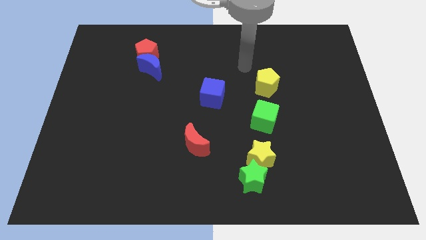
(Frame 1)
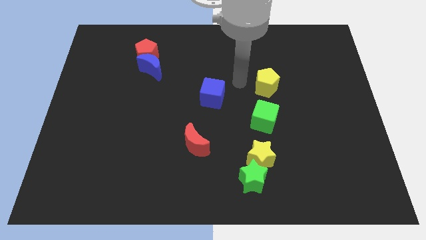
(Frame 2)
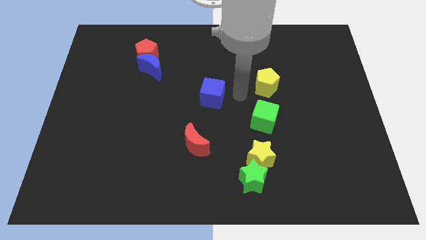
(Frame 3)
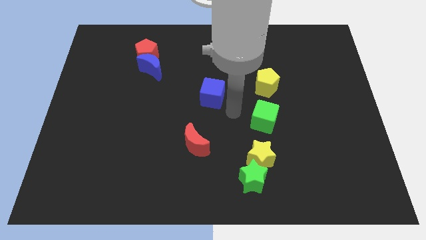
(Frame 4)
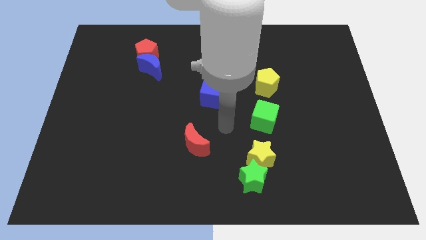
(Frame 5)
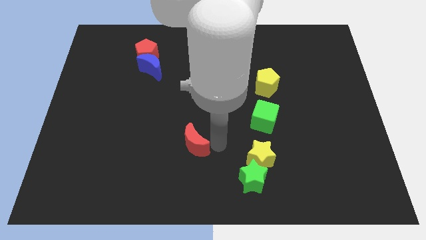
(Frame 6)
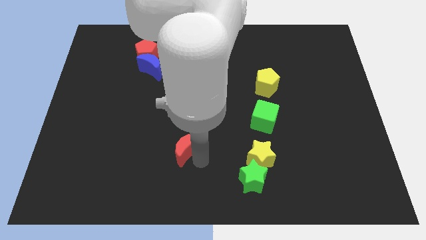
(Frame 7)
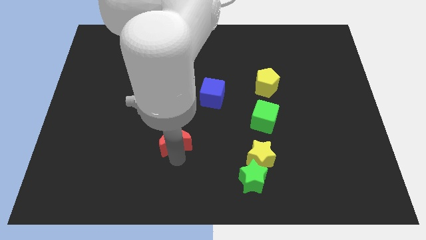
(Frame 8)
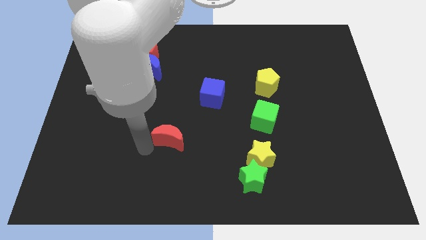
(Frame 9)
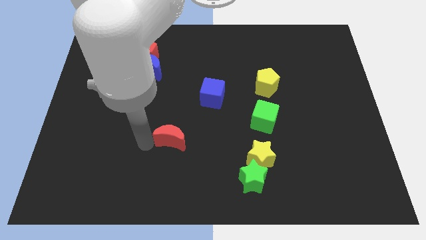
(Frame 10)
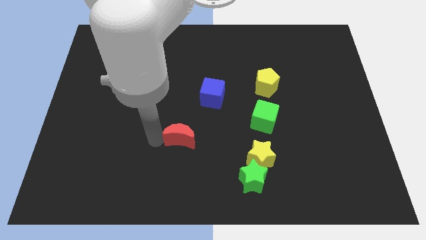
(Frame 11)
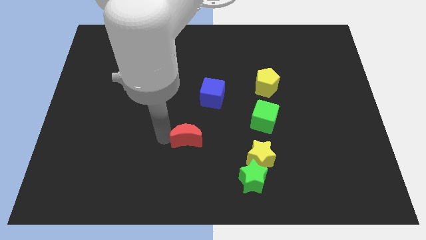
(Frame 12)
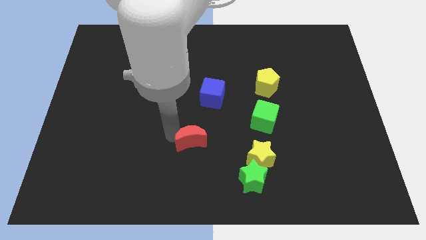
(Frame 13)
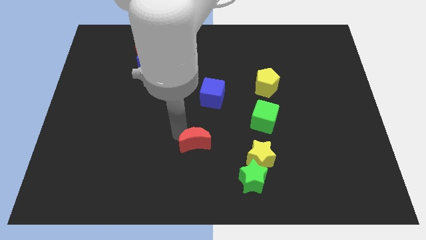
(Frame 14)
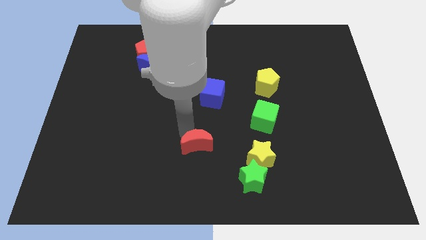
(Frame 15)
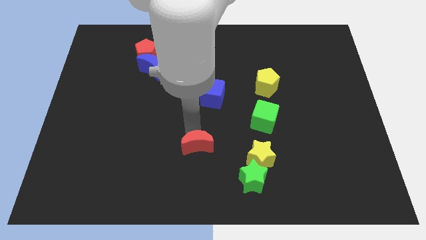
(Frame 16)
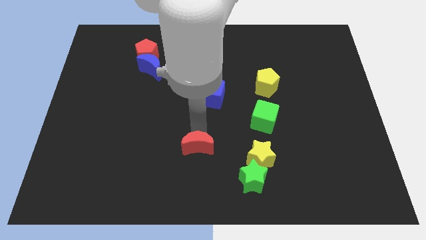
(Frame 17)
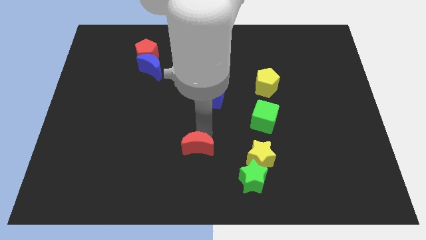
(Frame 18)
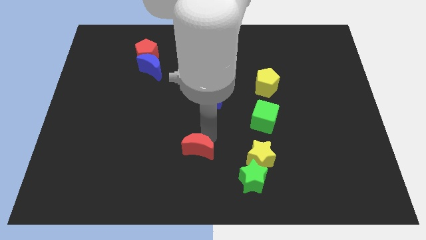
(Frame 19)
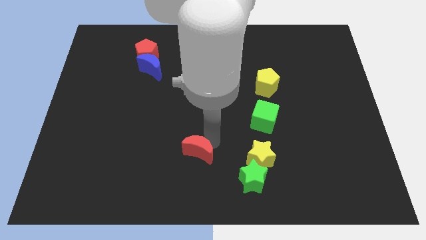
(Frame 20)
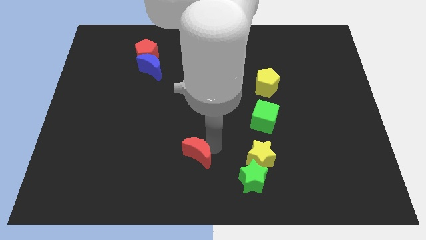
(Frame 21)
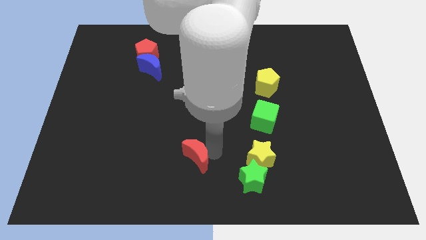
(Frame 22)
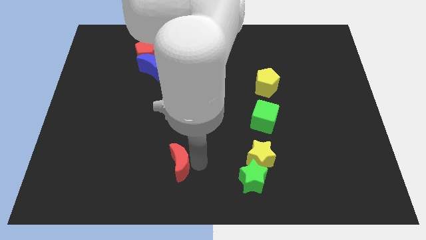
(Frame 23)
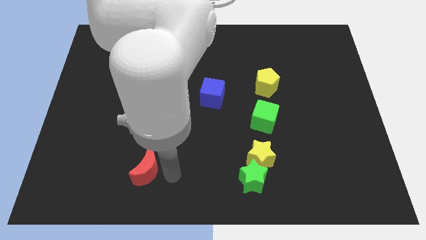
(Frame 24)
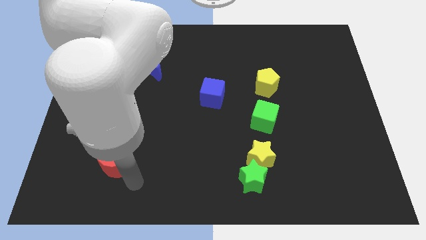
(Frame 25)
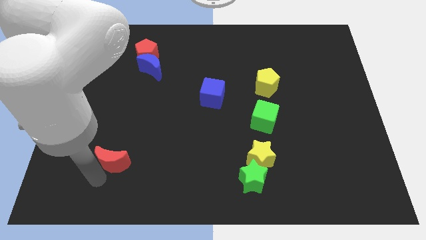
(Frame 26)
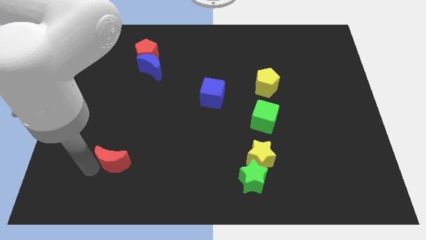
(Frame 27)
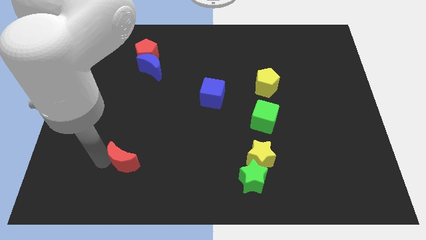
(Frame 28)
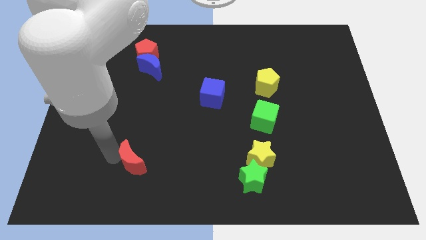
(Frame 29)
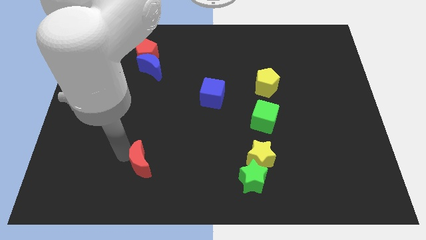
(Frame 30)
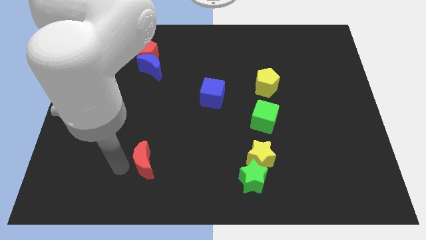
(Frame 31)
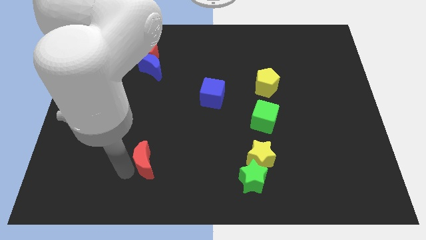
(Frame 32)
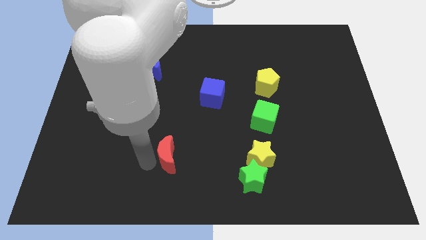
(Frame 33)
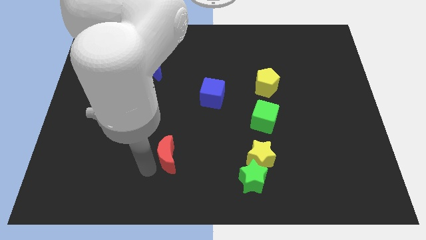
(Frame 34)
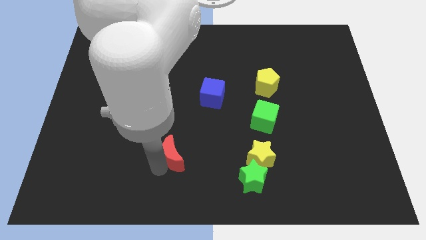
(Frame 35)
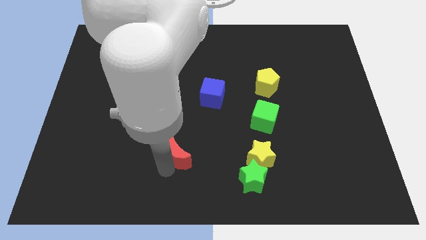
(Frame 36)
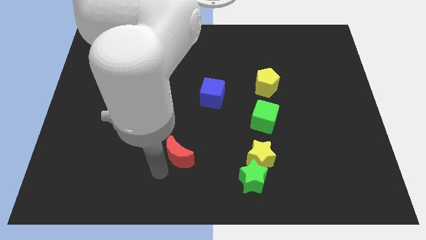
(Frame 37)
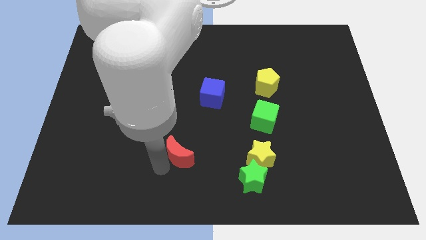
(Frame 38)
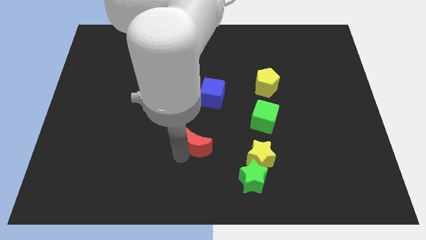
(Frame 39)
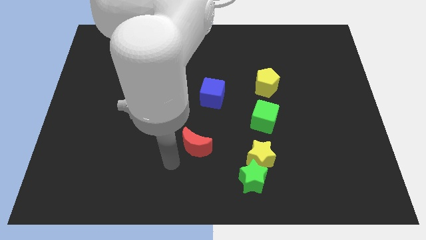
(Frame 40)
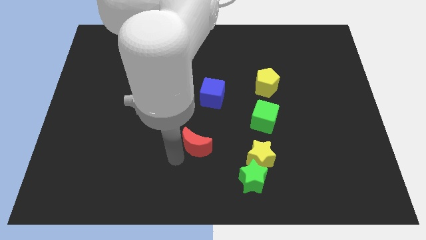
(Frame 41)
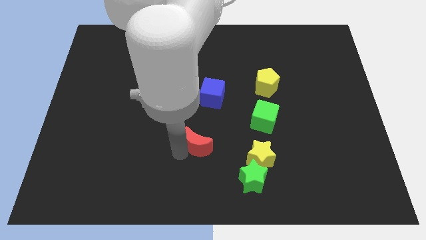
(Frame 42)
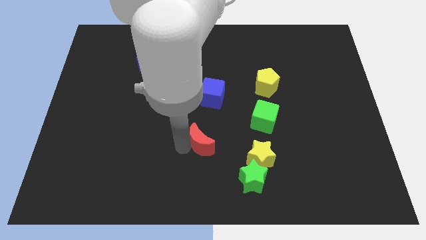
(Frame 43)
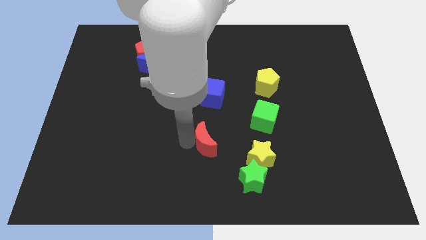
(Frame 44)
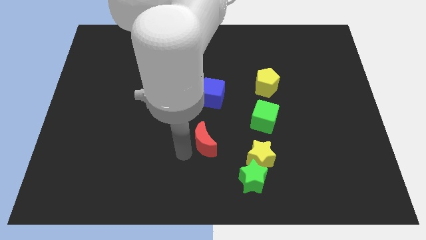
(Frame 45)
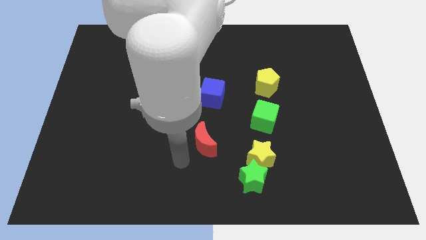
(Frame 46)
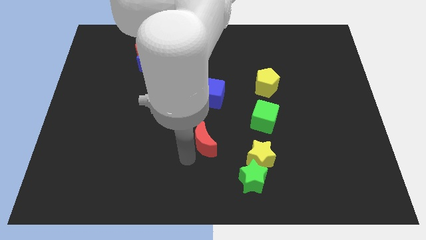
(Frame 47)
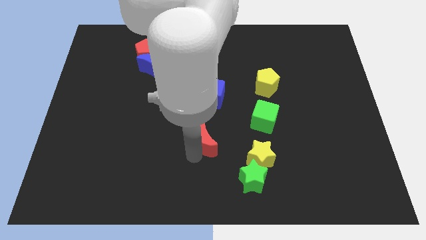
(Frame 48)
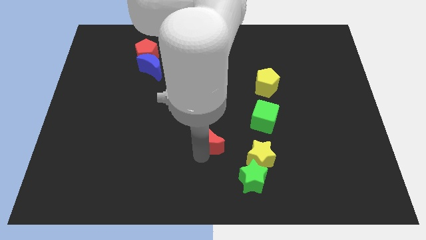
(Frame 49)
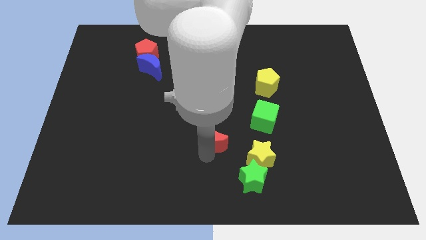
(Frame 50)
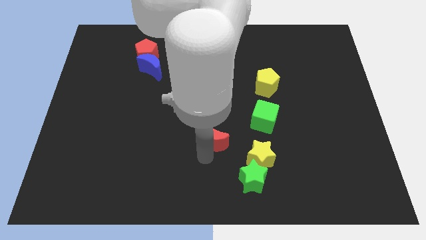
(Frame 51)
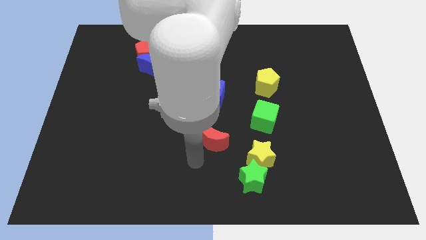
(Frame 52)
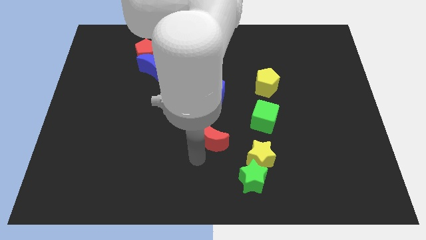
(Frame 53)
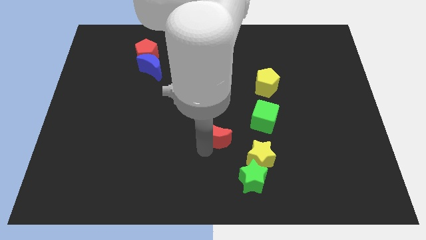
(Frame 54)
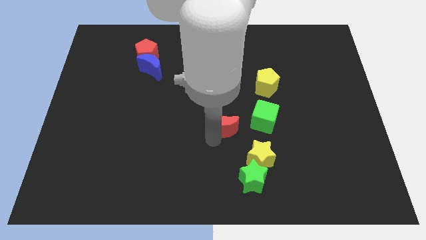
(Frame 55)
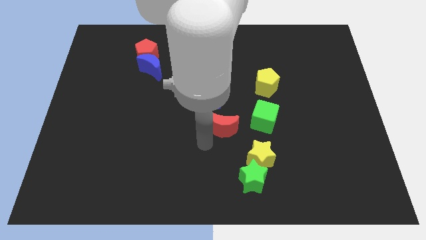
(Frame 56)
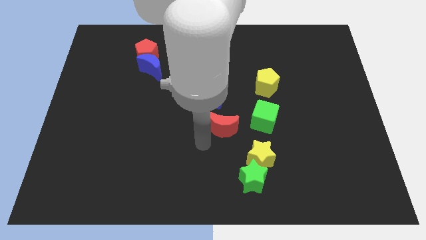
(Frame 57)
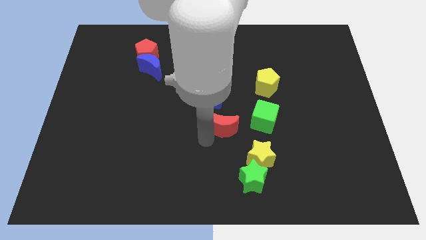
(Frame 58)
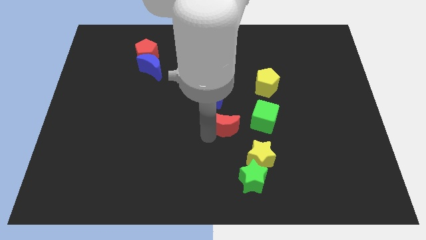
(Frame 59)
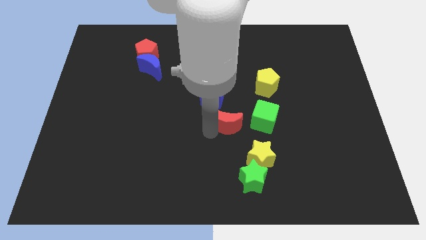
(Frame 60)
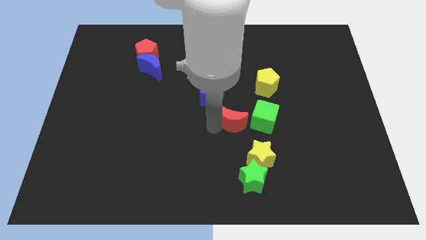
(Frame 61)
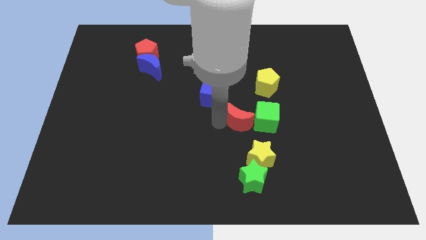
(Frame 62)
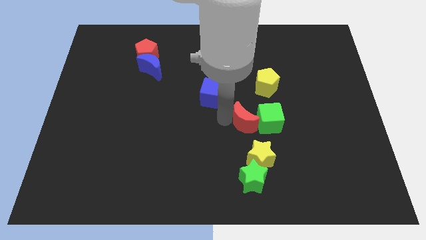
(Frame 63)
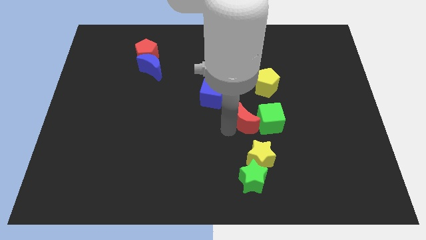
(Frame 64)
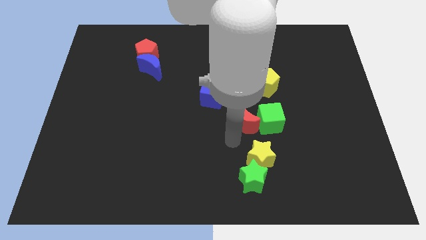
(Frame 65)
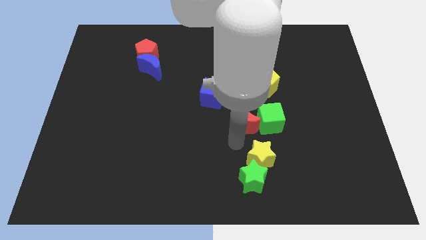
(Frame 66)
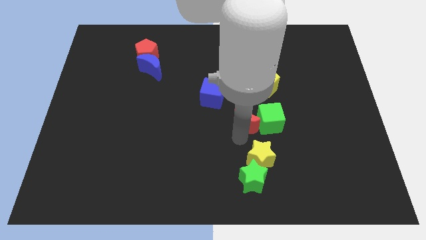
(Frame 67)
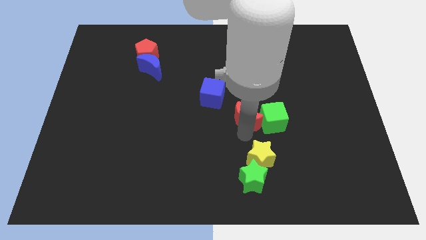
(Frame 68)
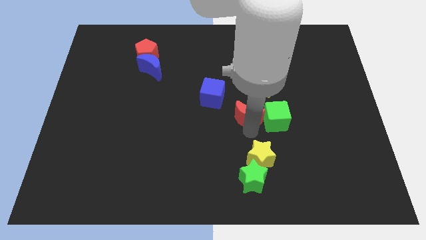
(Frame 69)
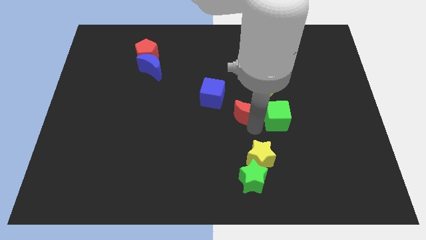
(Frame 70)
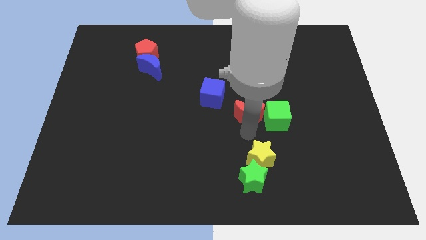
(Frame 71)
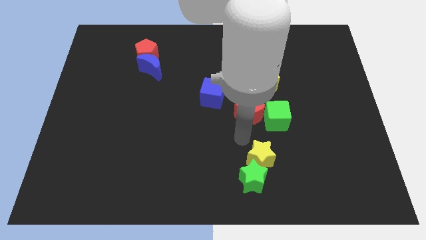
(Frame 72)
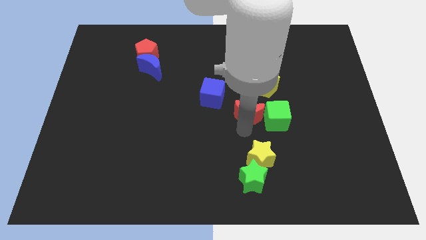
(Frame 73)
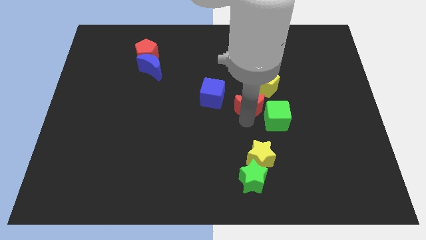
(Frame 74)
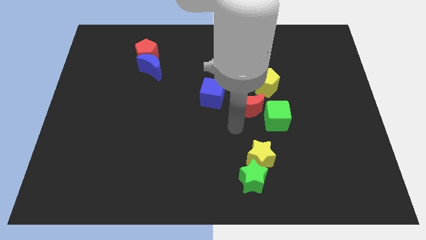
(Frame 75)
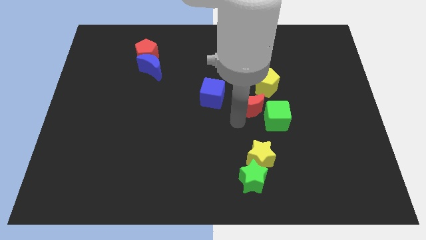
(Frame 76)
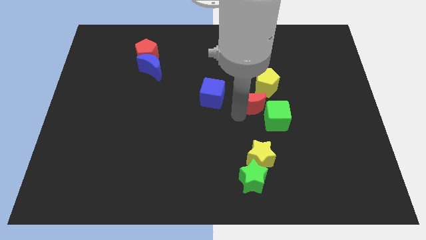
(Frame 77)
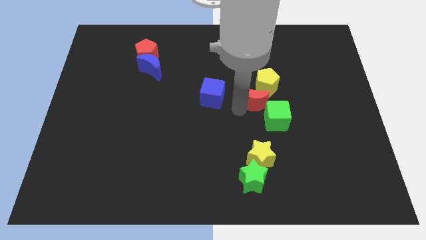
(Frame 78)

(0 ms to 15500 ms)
push the red moon towards the yellow pentagon
